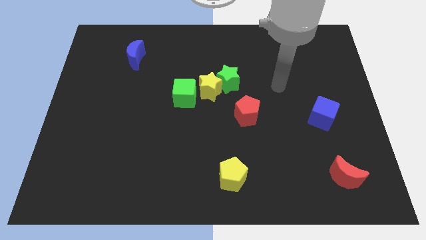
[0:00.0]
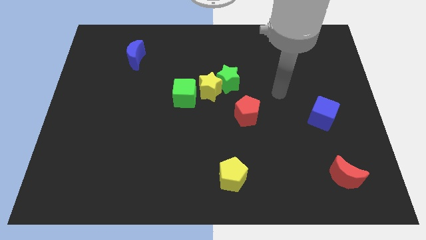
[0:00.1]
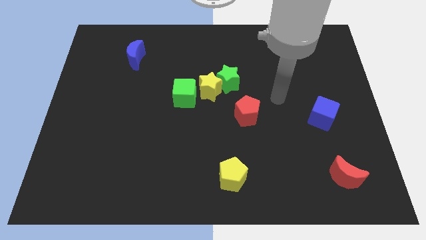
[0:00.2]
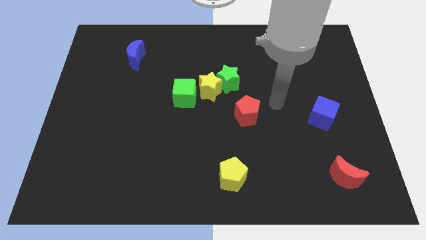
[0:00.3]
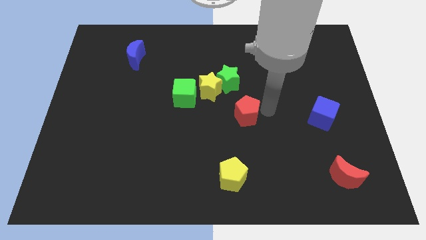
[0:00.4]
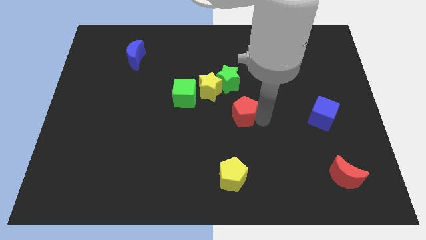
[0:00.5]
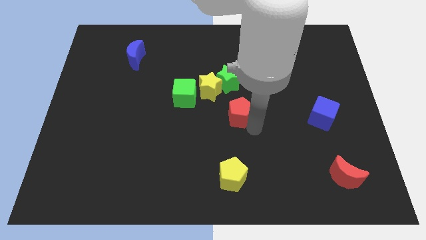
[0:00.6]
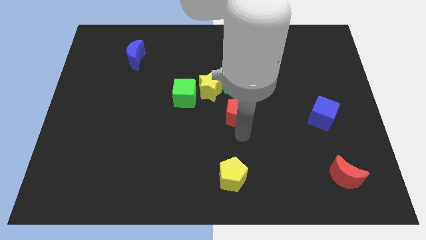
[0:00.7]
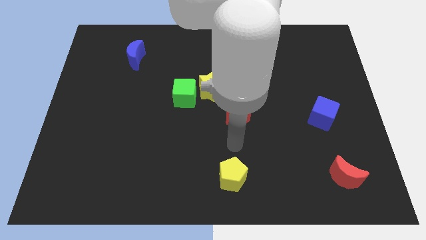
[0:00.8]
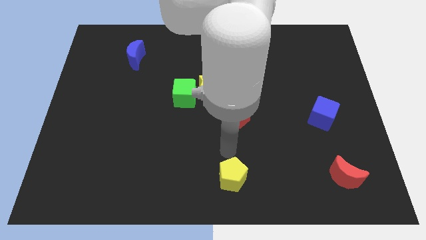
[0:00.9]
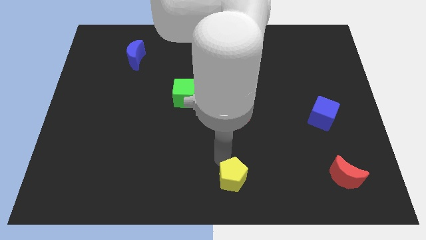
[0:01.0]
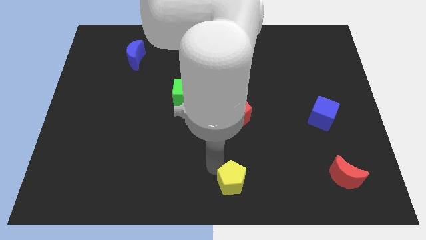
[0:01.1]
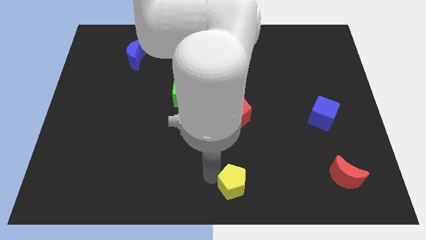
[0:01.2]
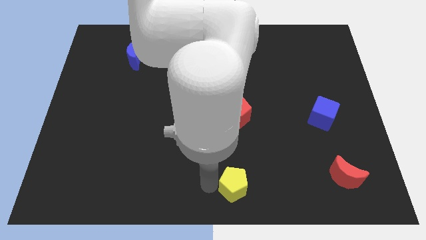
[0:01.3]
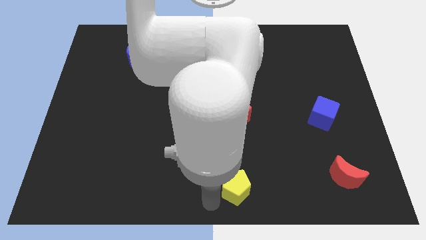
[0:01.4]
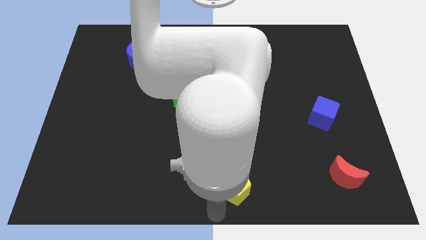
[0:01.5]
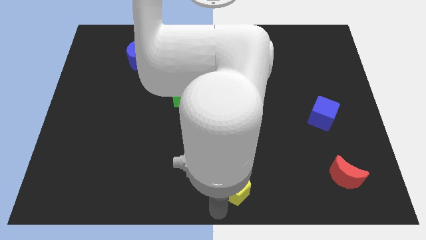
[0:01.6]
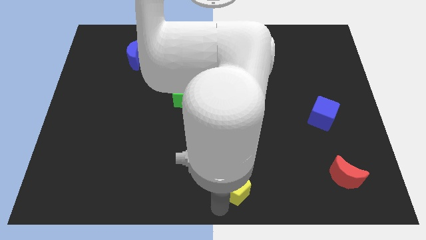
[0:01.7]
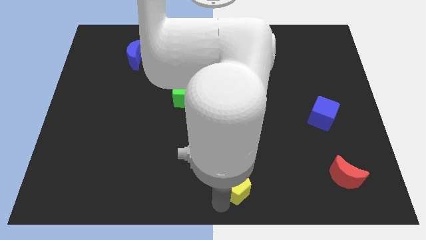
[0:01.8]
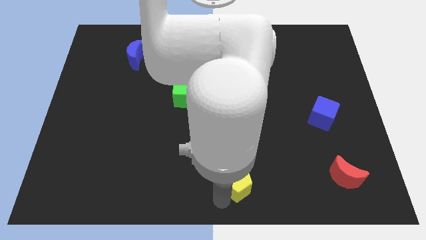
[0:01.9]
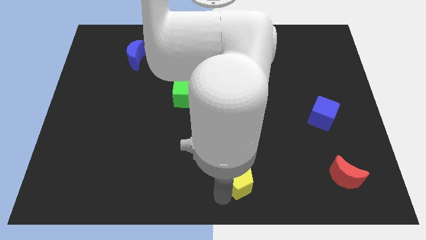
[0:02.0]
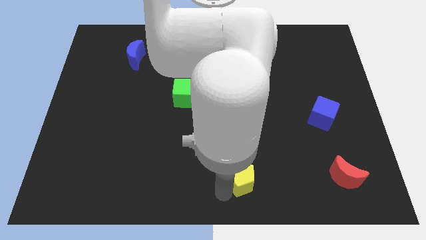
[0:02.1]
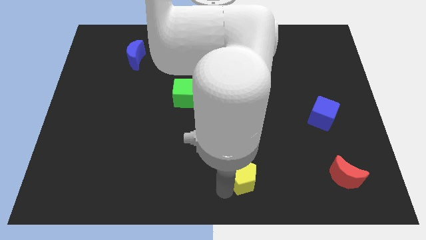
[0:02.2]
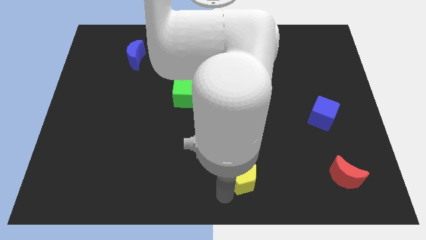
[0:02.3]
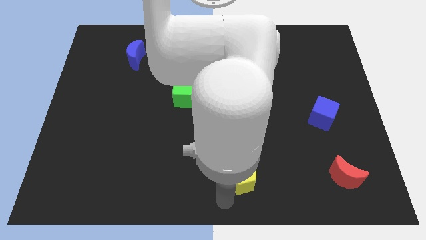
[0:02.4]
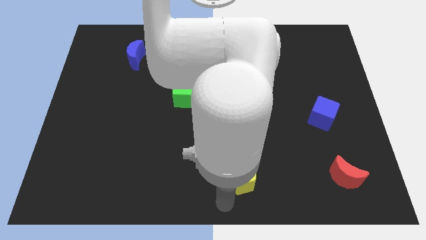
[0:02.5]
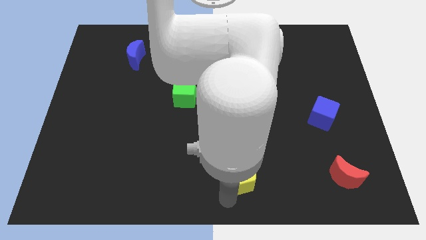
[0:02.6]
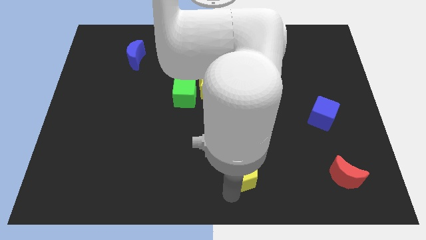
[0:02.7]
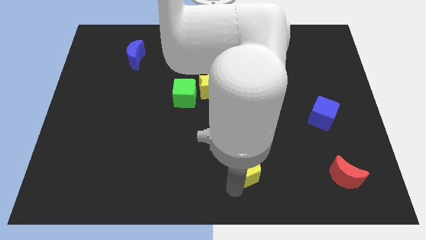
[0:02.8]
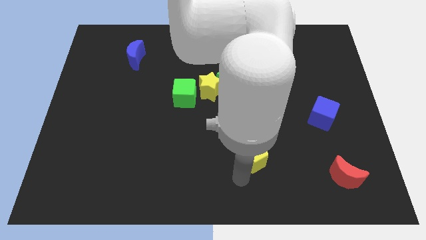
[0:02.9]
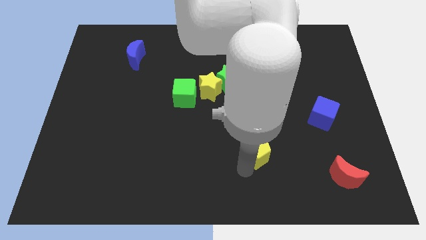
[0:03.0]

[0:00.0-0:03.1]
slide the yellow pentagon upwards and right diagonally somewhat

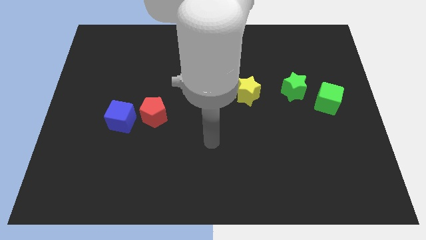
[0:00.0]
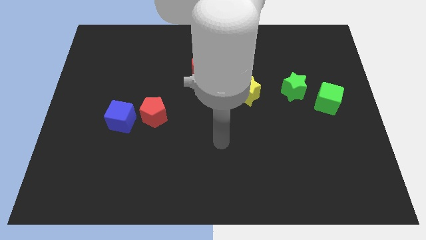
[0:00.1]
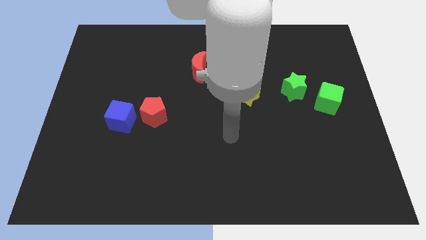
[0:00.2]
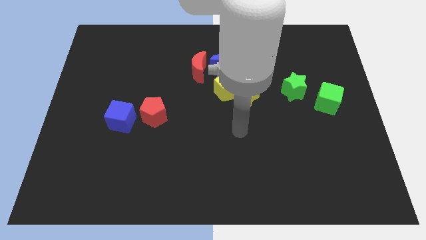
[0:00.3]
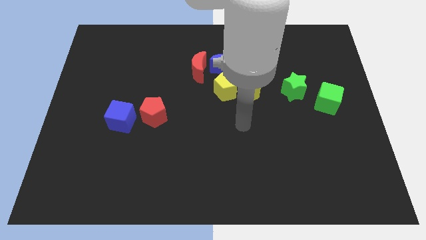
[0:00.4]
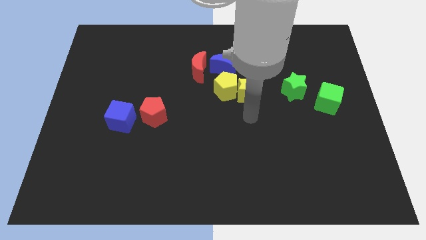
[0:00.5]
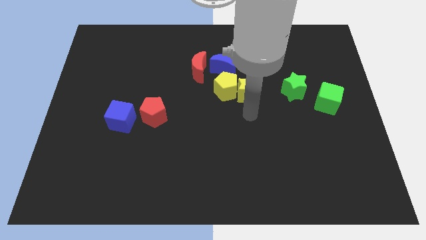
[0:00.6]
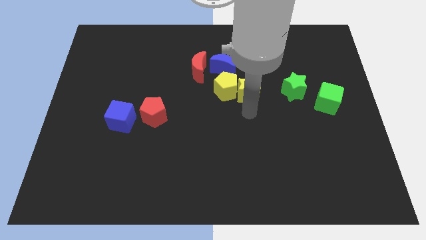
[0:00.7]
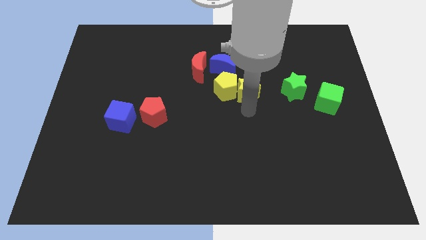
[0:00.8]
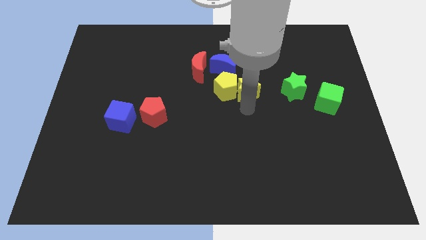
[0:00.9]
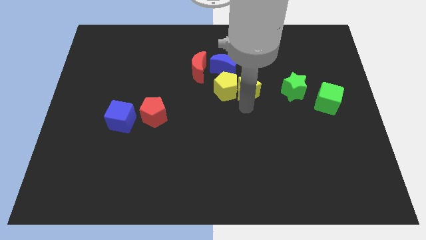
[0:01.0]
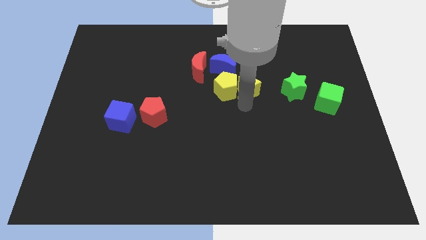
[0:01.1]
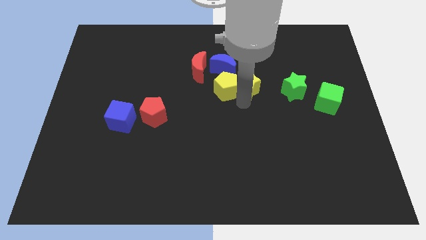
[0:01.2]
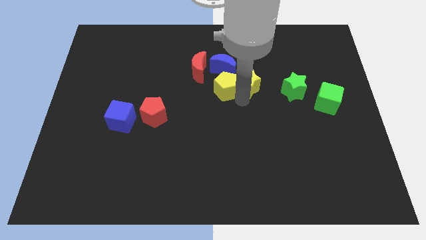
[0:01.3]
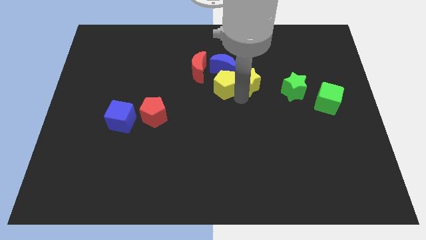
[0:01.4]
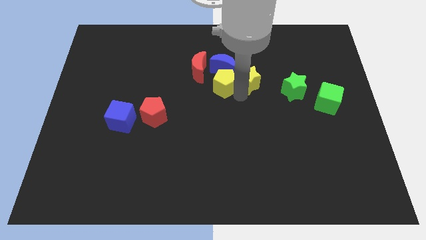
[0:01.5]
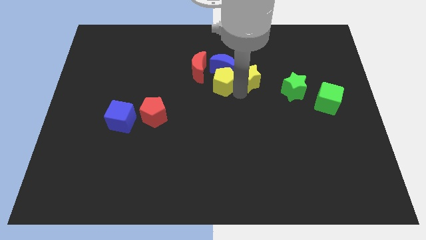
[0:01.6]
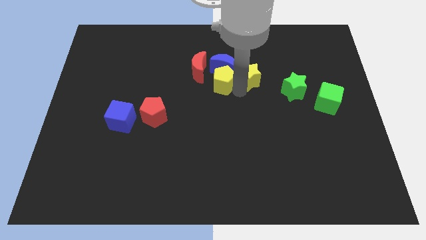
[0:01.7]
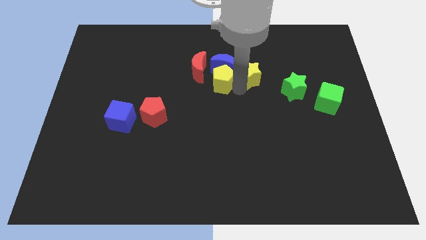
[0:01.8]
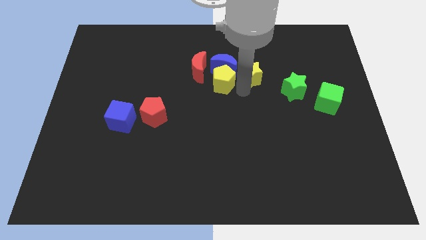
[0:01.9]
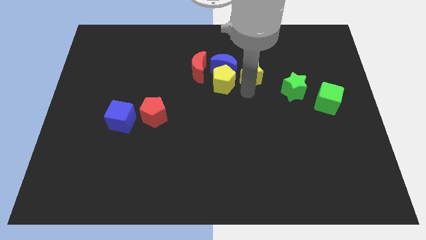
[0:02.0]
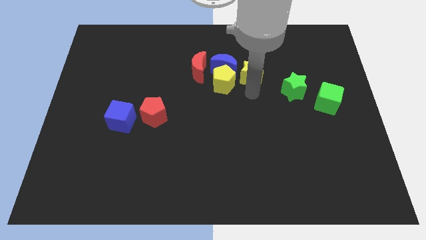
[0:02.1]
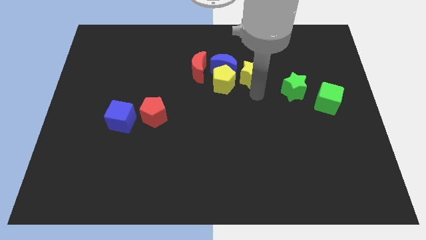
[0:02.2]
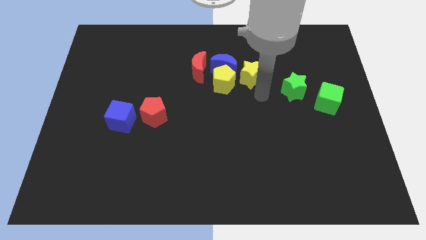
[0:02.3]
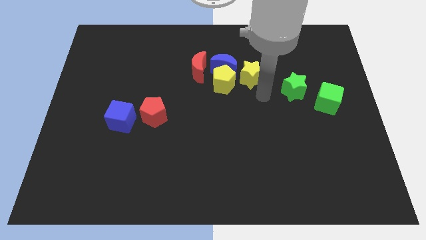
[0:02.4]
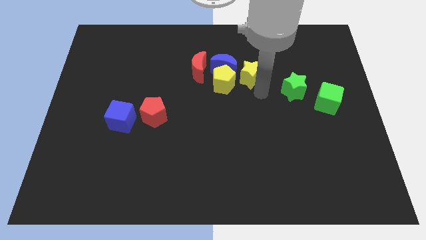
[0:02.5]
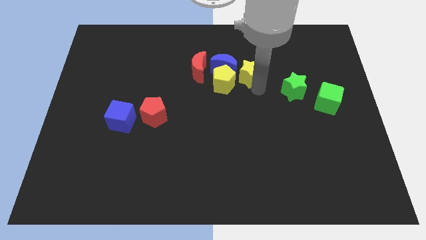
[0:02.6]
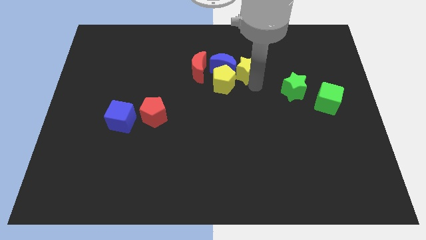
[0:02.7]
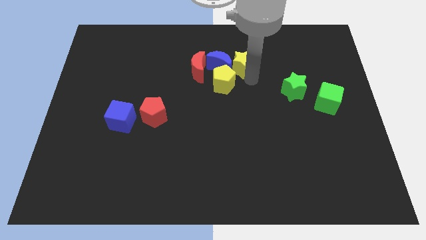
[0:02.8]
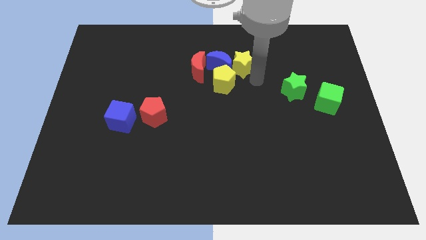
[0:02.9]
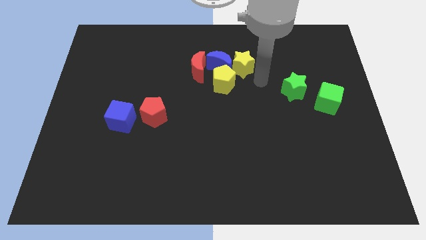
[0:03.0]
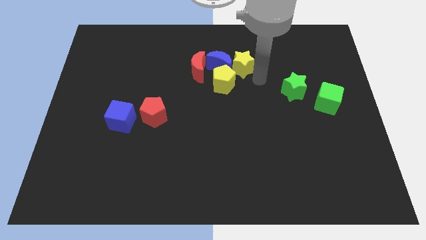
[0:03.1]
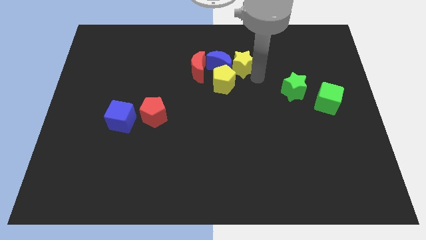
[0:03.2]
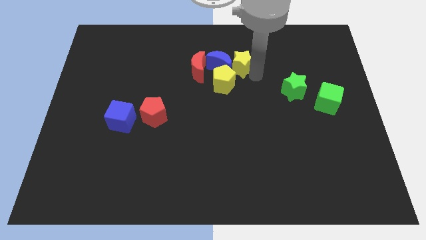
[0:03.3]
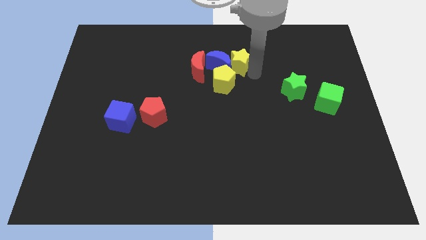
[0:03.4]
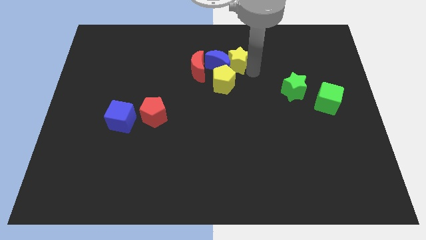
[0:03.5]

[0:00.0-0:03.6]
slide the yellow star somewhat upwards and then left

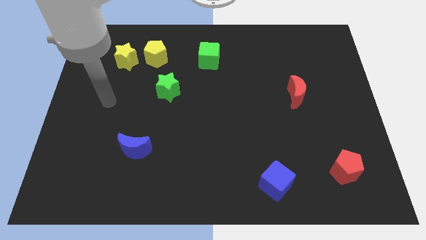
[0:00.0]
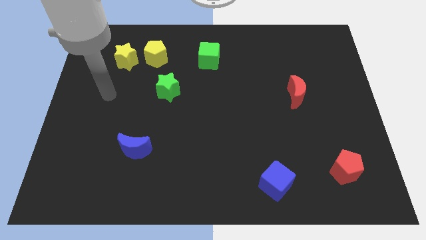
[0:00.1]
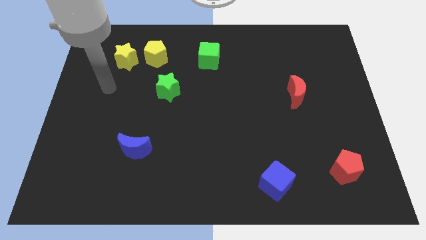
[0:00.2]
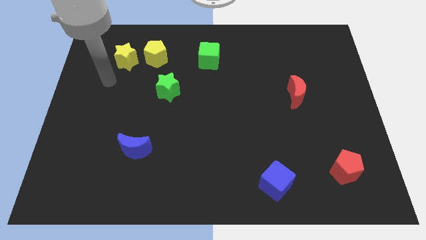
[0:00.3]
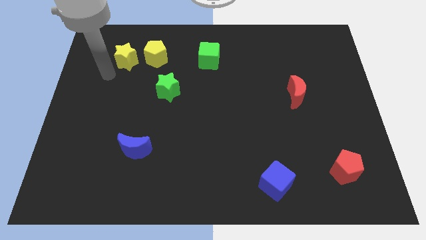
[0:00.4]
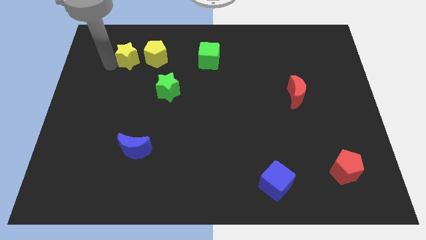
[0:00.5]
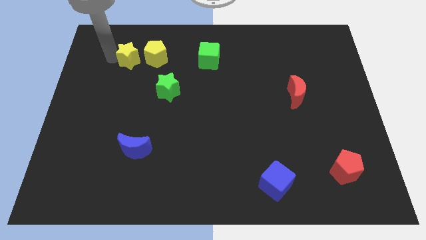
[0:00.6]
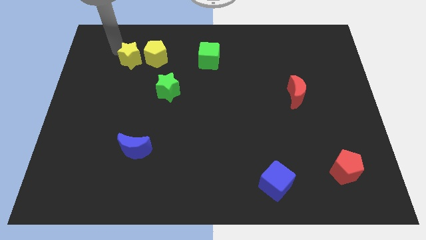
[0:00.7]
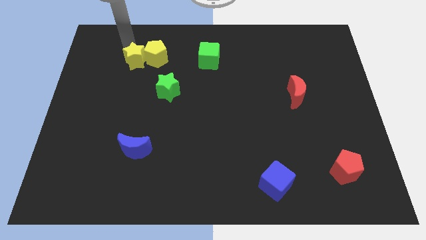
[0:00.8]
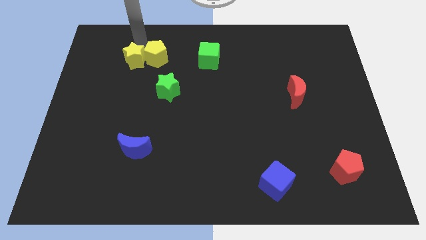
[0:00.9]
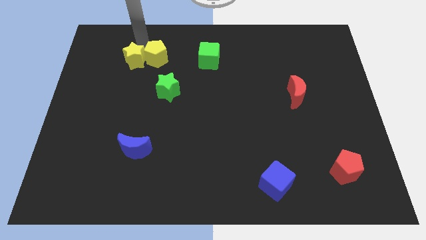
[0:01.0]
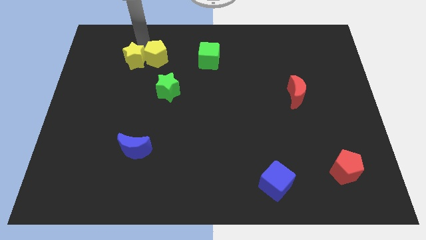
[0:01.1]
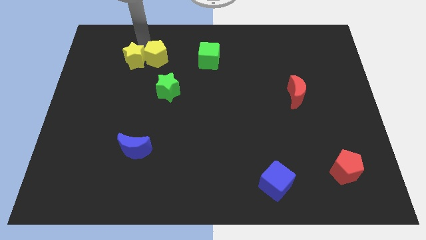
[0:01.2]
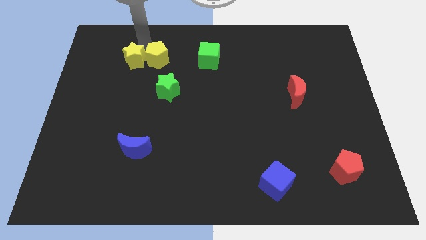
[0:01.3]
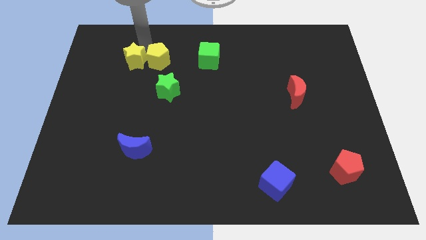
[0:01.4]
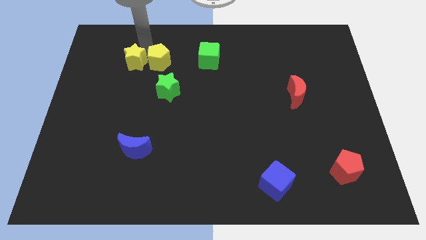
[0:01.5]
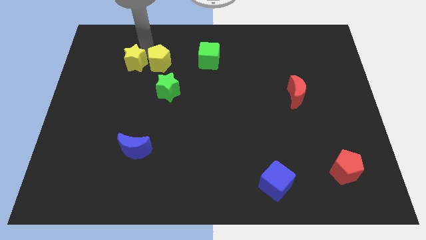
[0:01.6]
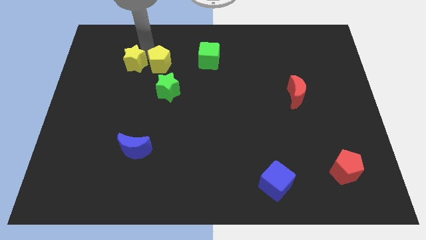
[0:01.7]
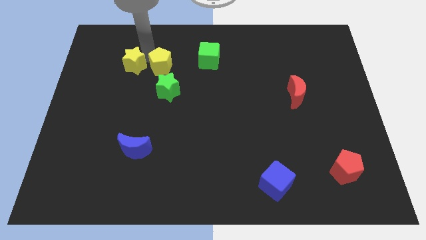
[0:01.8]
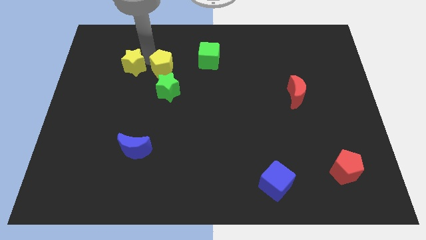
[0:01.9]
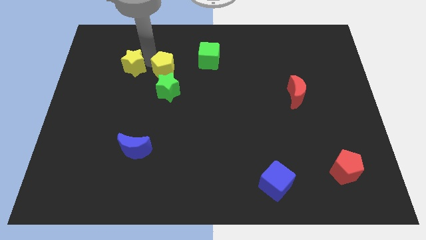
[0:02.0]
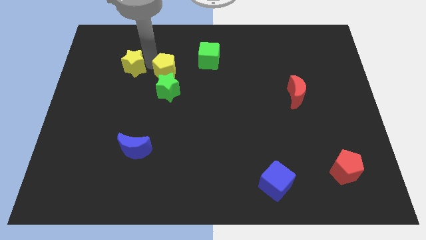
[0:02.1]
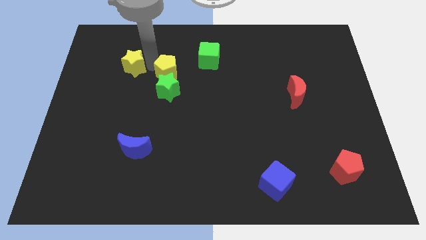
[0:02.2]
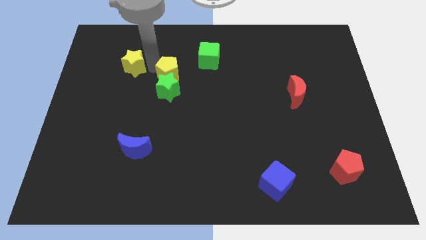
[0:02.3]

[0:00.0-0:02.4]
slide the yellow pentagon a bit down and to the right
